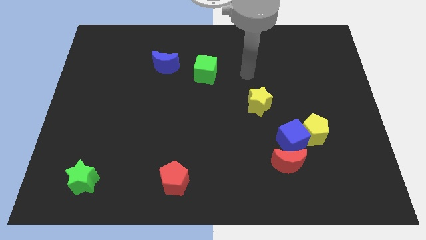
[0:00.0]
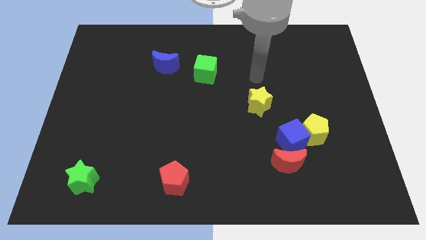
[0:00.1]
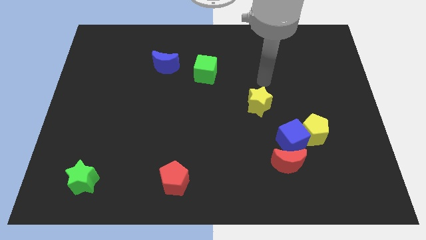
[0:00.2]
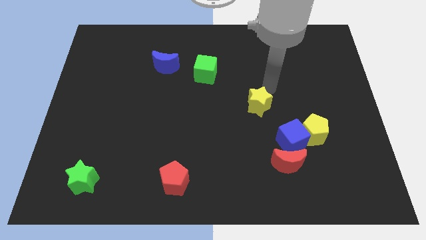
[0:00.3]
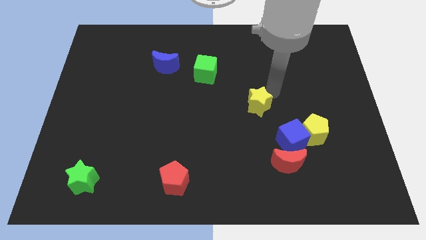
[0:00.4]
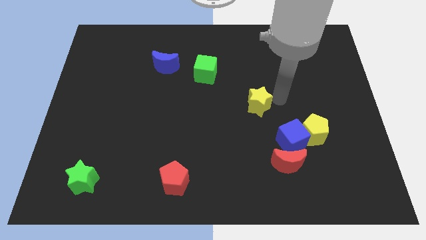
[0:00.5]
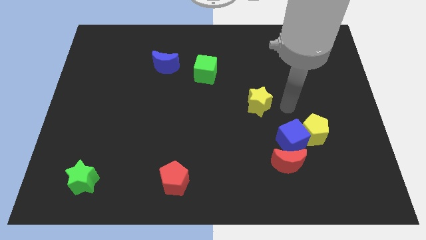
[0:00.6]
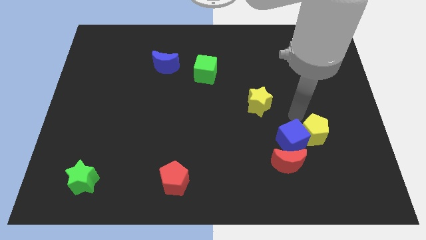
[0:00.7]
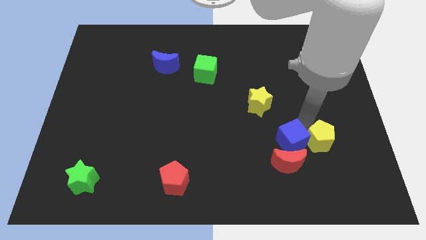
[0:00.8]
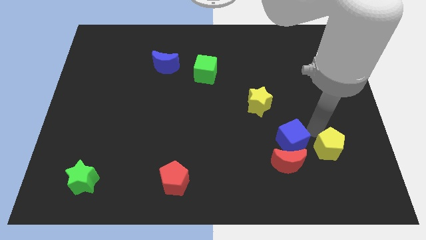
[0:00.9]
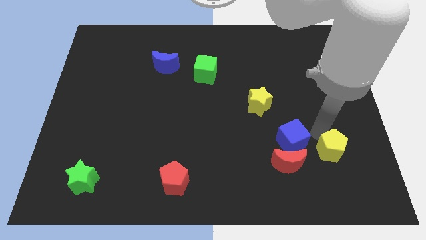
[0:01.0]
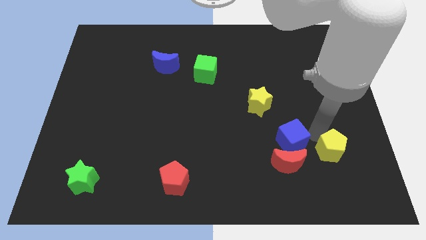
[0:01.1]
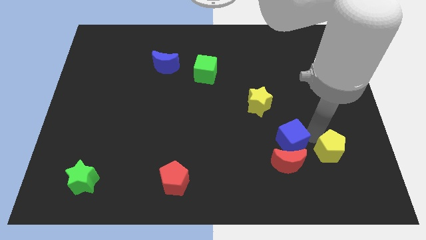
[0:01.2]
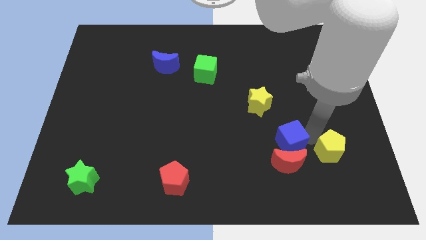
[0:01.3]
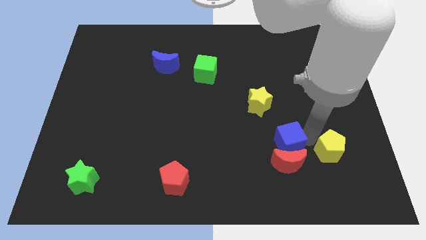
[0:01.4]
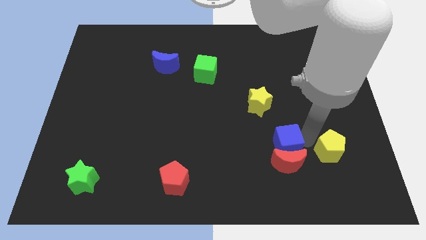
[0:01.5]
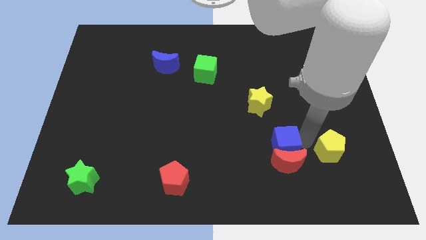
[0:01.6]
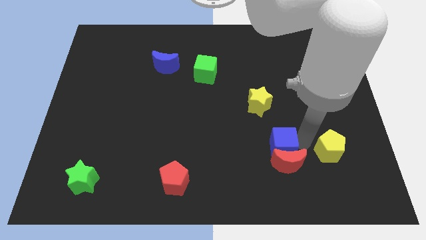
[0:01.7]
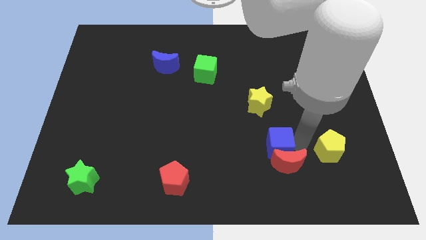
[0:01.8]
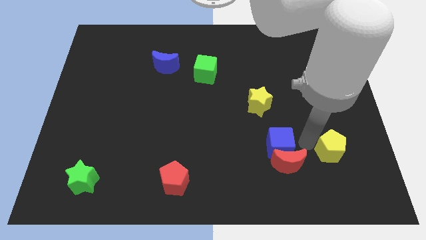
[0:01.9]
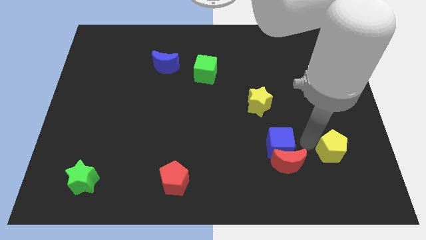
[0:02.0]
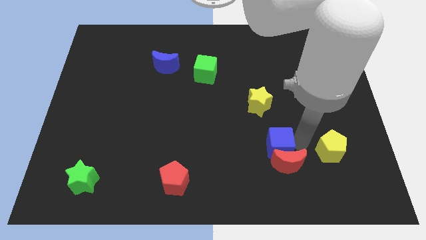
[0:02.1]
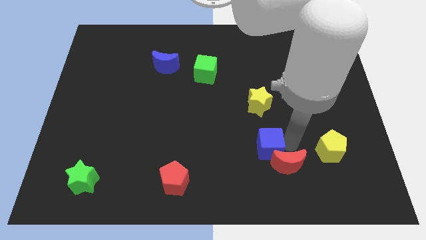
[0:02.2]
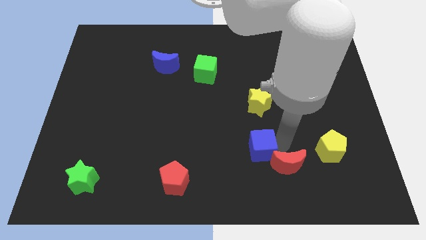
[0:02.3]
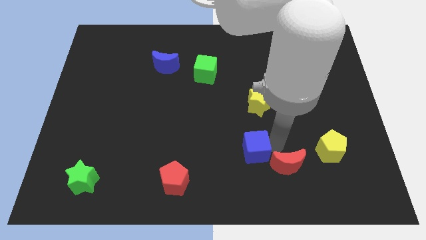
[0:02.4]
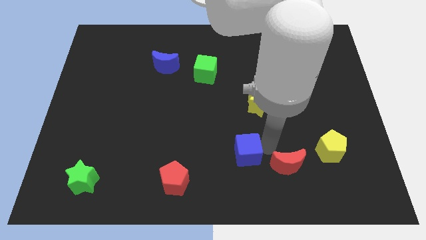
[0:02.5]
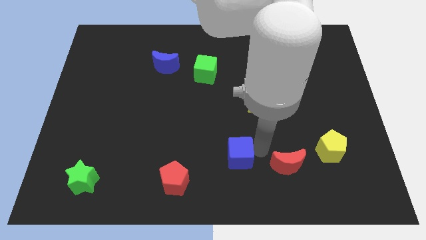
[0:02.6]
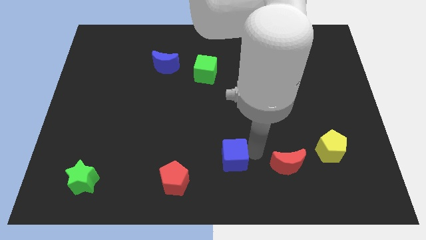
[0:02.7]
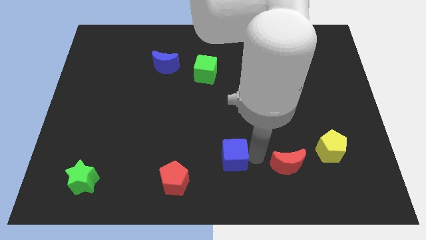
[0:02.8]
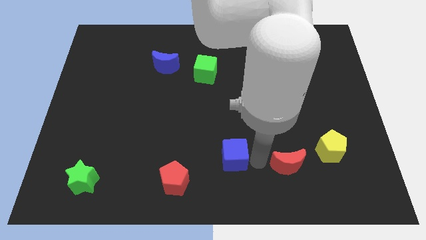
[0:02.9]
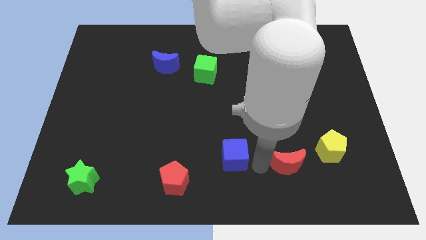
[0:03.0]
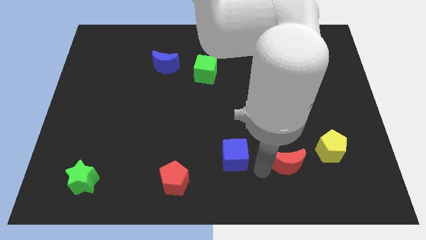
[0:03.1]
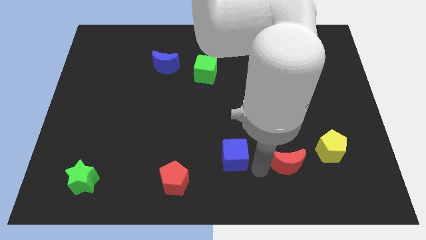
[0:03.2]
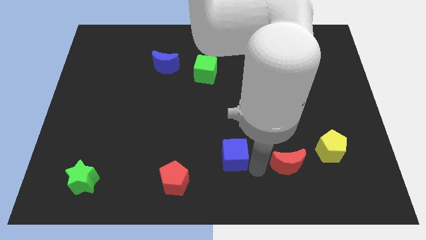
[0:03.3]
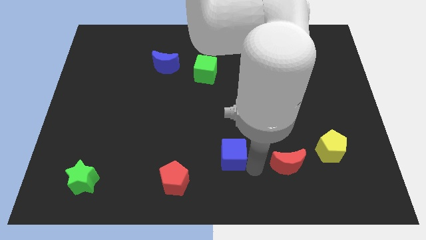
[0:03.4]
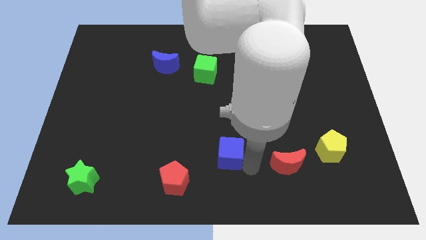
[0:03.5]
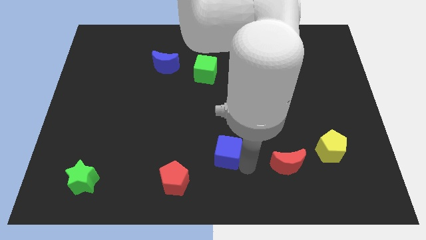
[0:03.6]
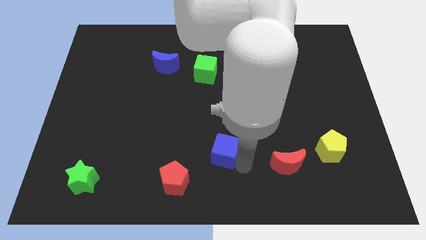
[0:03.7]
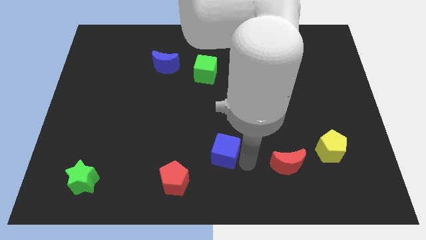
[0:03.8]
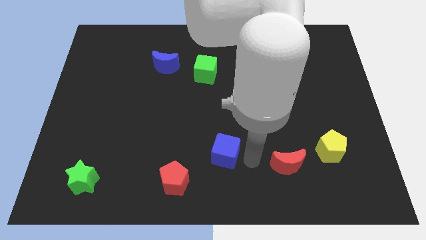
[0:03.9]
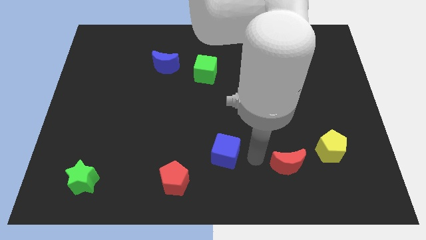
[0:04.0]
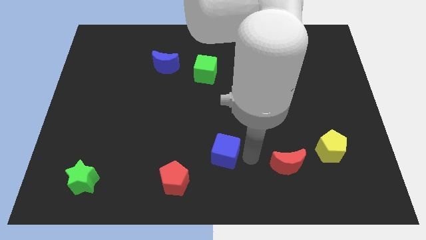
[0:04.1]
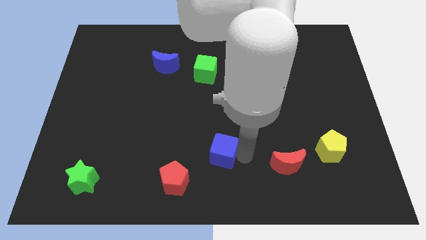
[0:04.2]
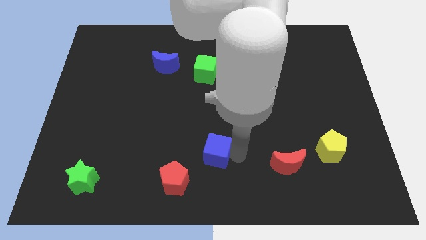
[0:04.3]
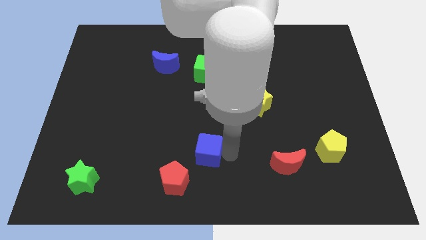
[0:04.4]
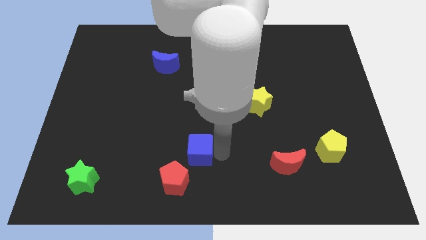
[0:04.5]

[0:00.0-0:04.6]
slide the blue cube to the left

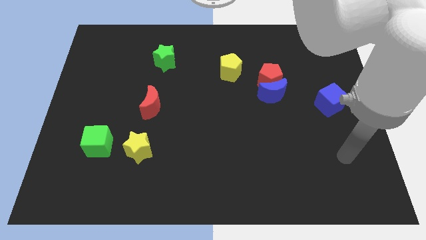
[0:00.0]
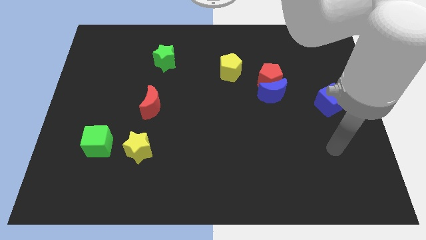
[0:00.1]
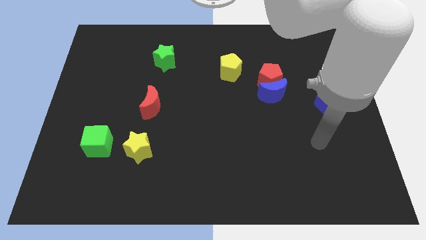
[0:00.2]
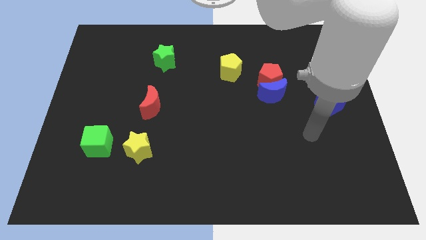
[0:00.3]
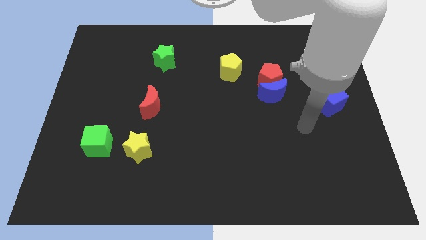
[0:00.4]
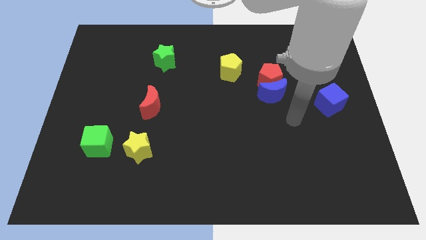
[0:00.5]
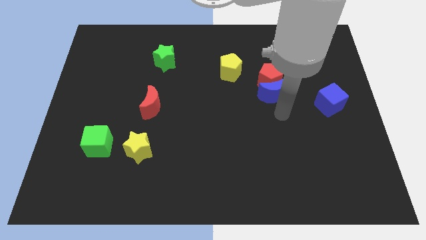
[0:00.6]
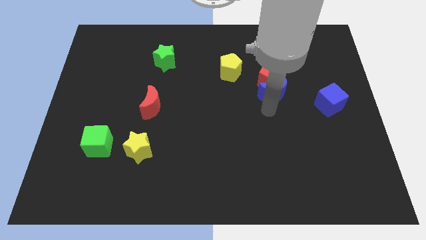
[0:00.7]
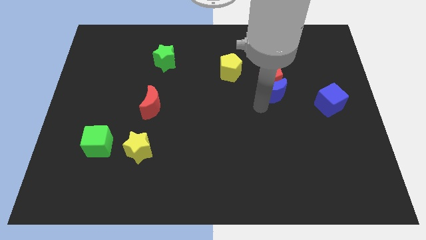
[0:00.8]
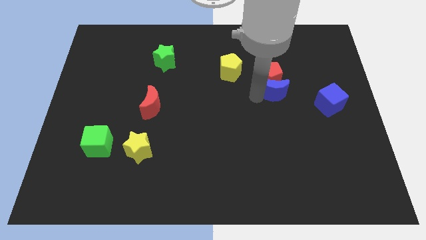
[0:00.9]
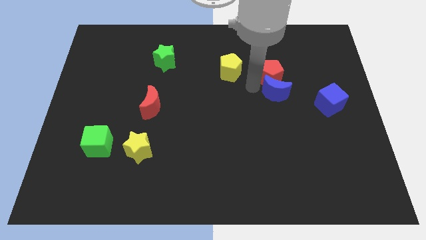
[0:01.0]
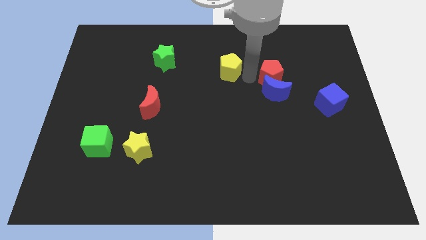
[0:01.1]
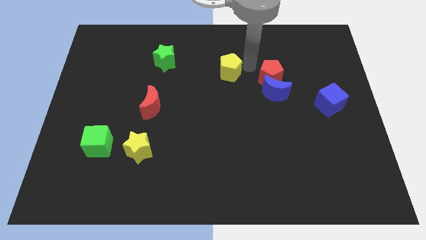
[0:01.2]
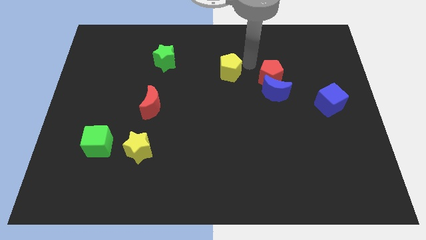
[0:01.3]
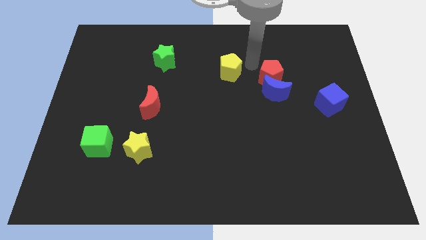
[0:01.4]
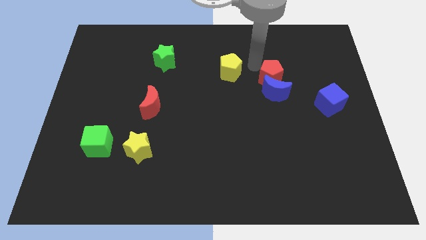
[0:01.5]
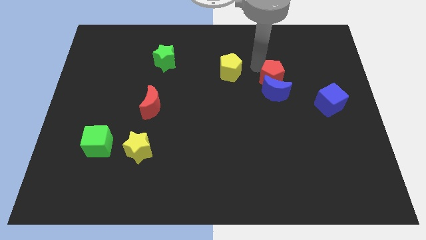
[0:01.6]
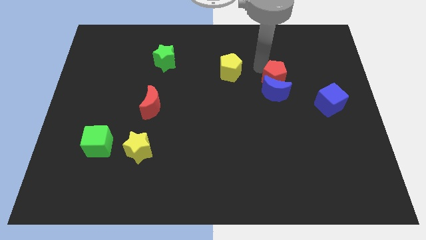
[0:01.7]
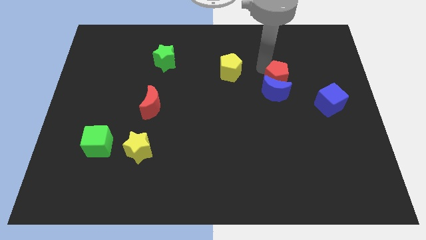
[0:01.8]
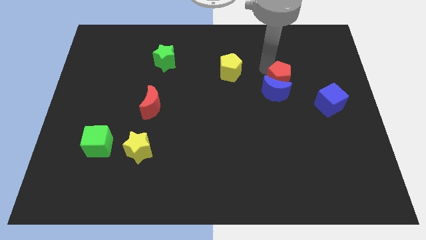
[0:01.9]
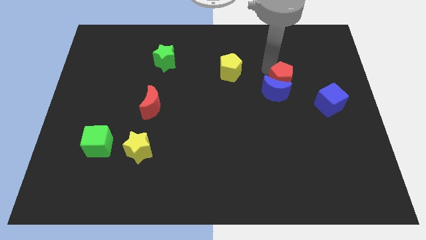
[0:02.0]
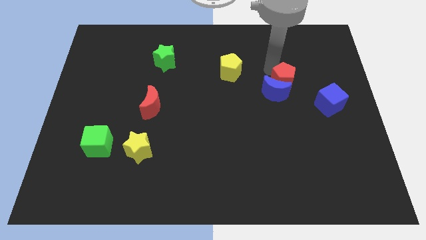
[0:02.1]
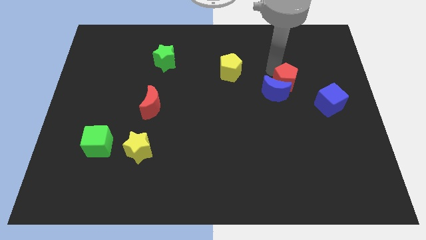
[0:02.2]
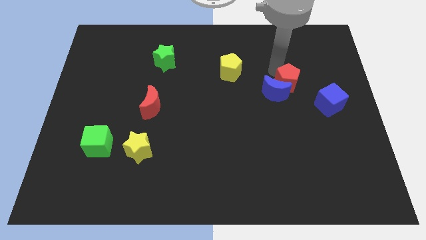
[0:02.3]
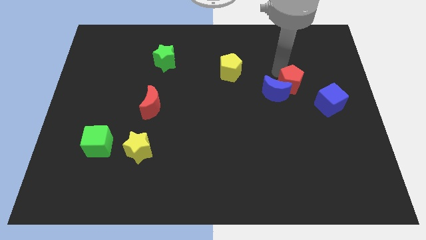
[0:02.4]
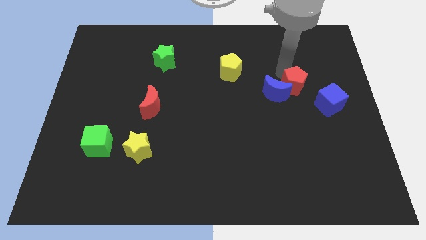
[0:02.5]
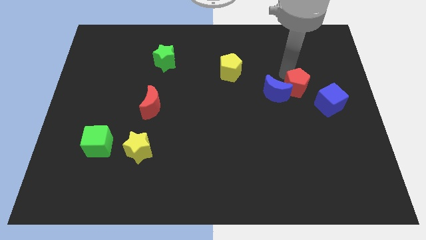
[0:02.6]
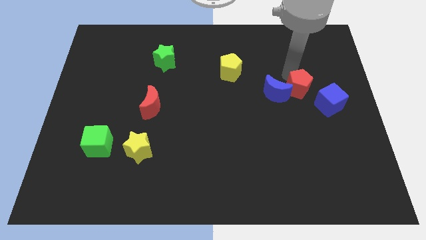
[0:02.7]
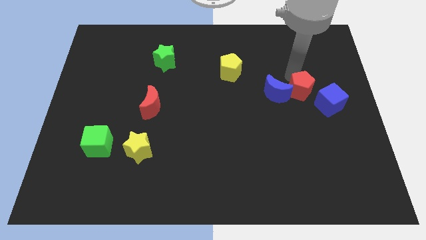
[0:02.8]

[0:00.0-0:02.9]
slightly push the red pentagon downwards and then to the right
